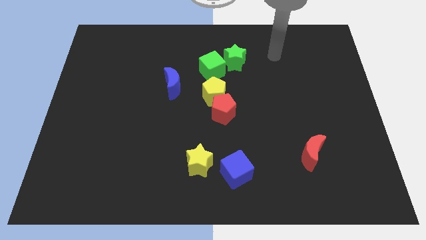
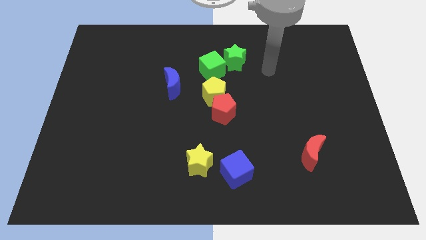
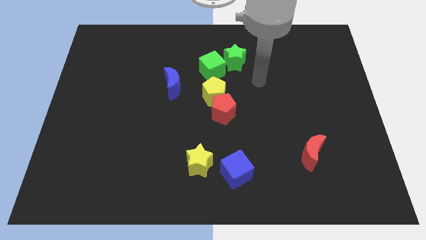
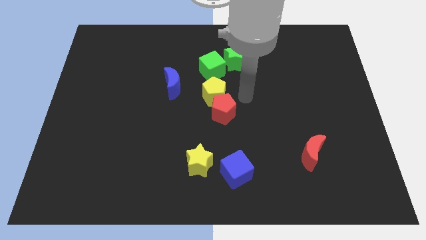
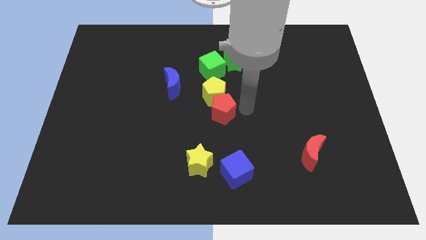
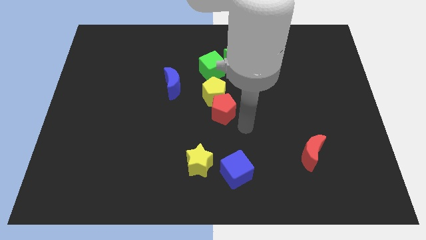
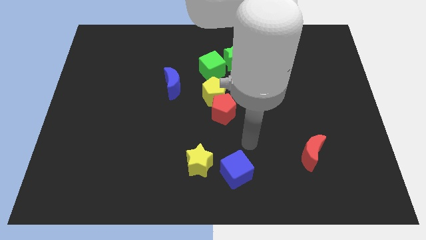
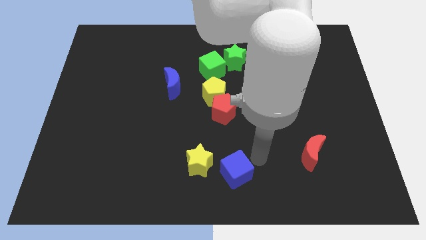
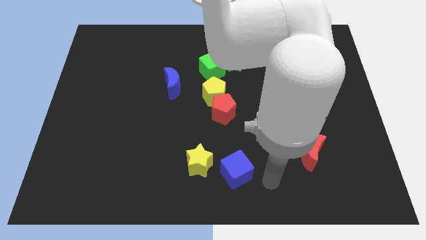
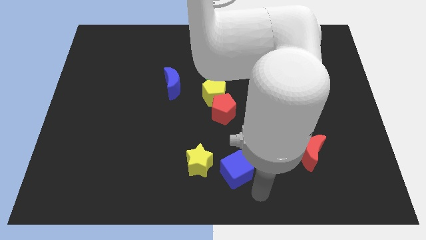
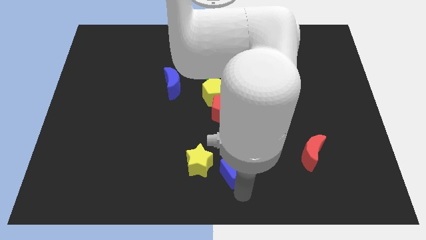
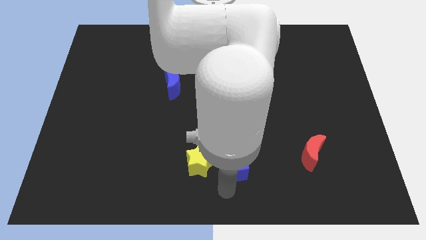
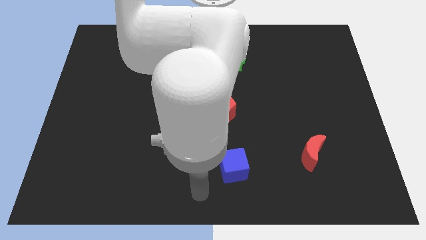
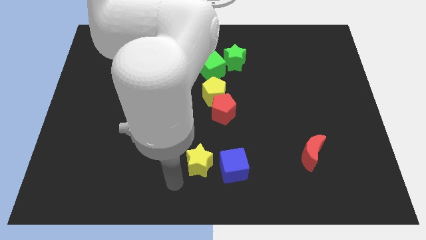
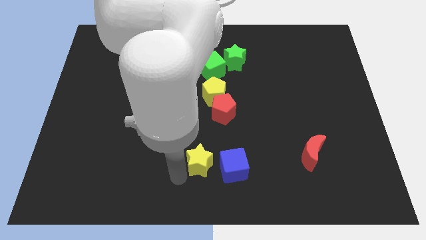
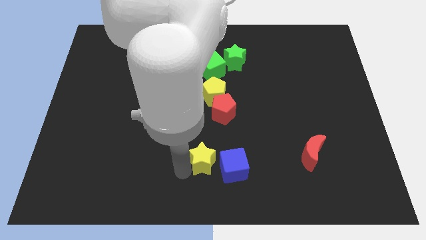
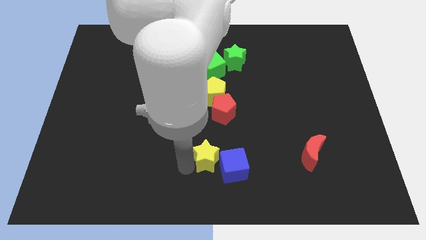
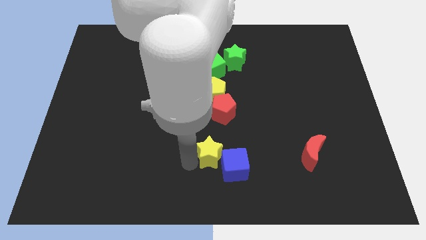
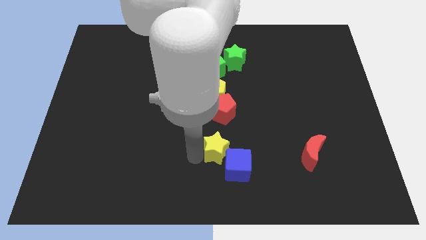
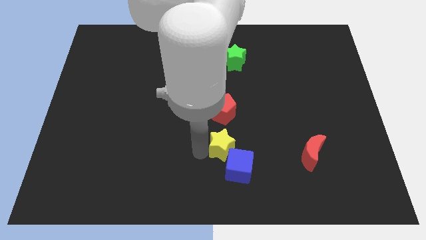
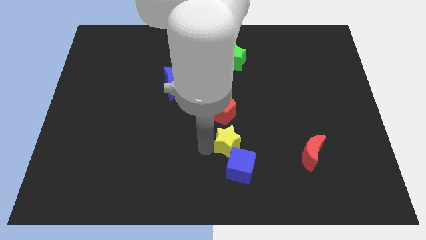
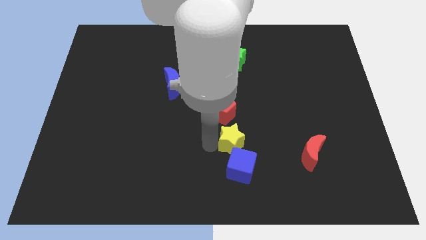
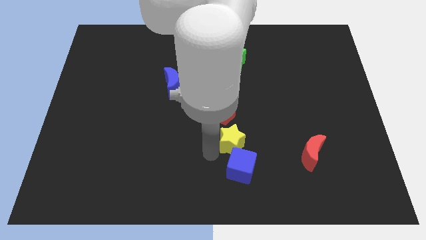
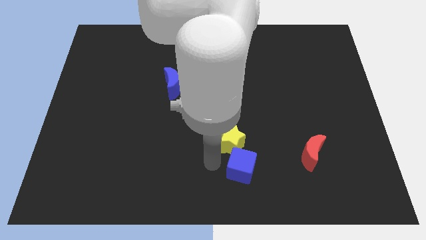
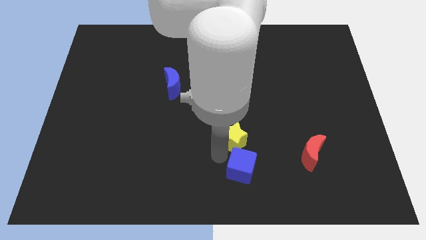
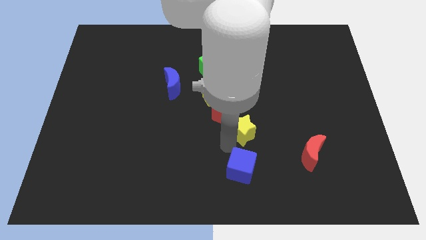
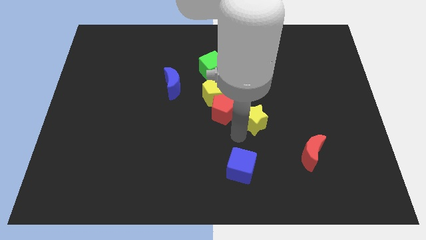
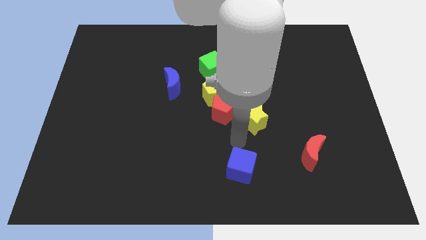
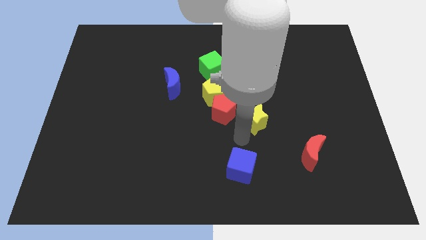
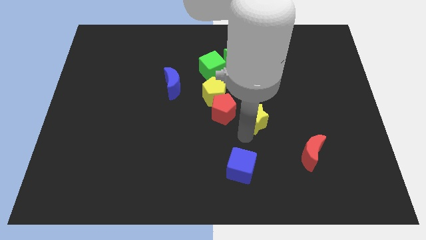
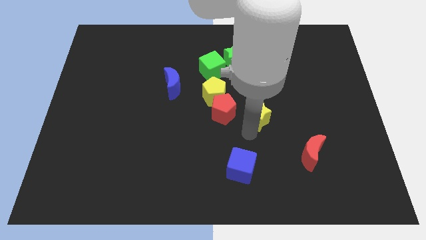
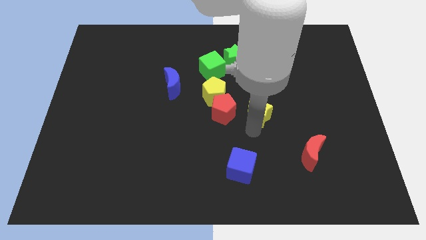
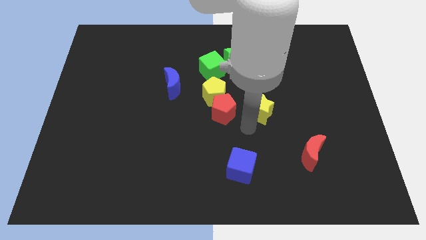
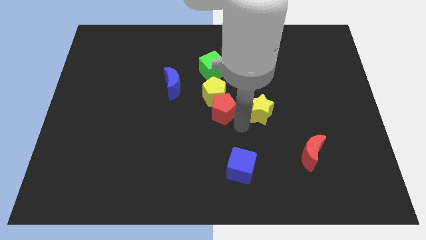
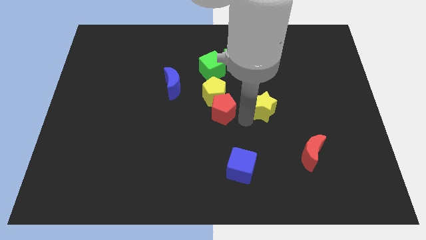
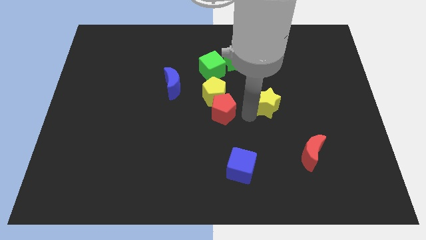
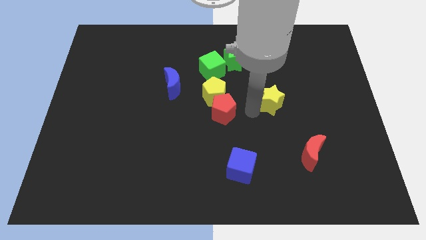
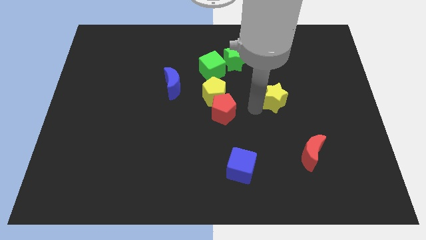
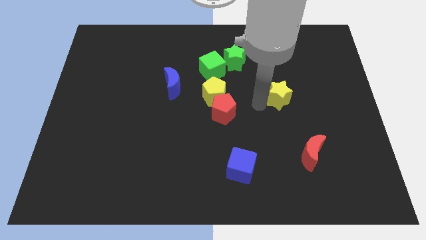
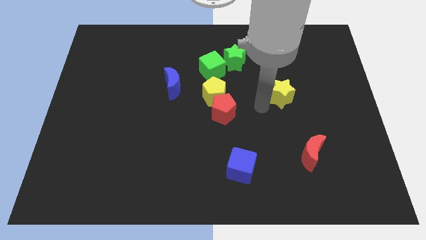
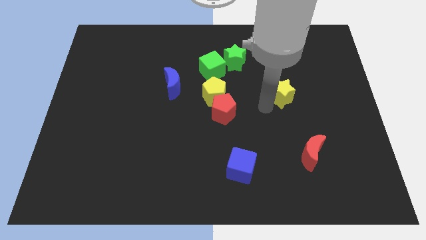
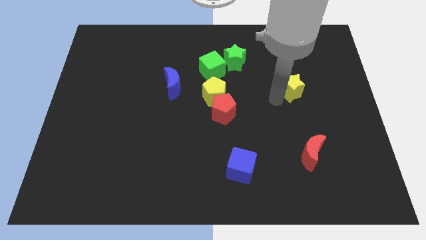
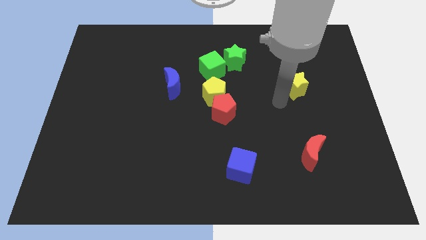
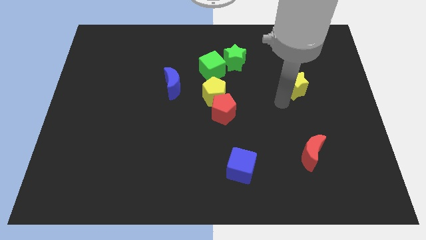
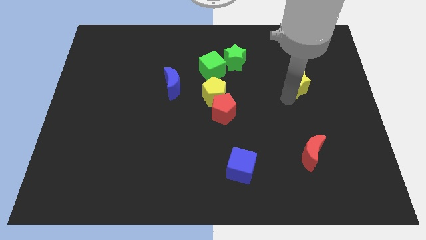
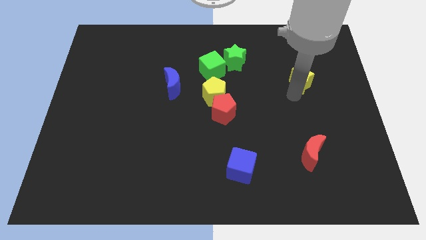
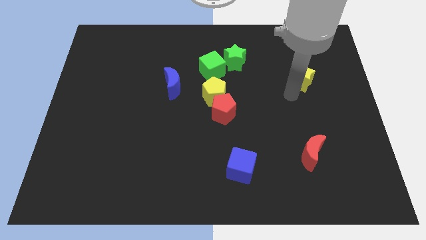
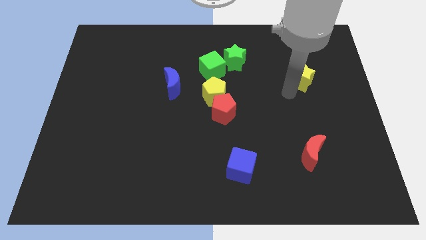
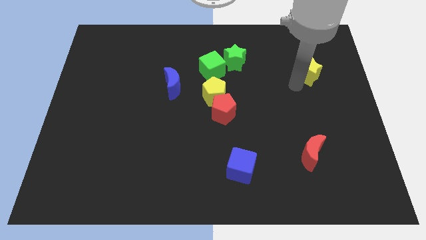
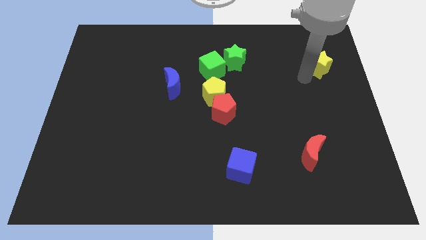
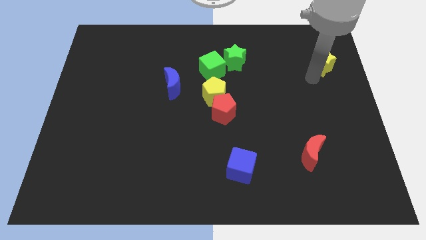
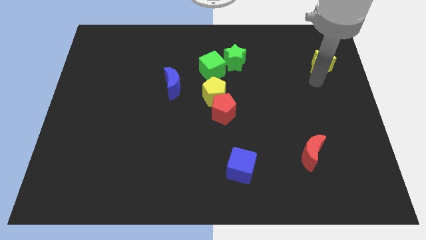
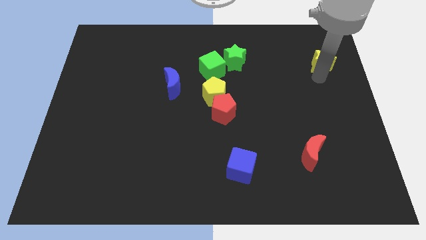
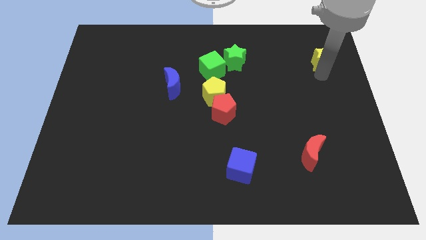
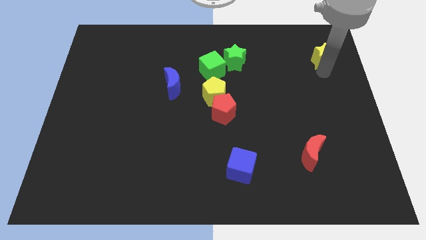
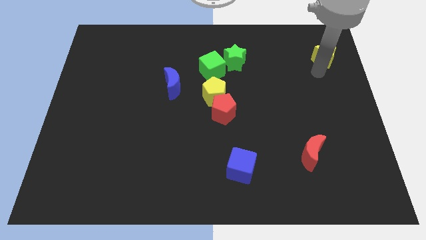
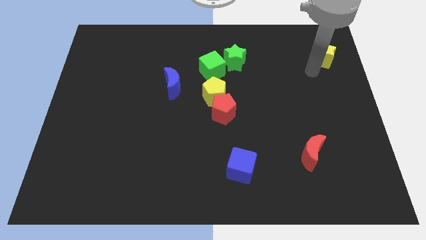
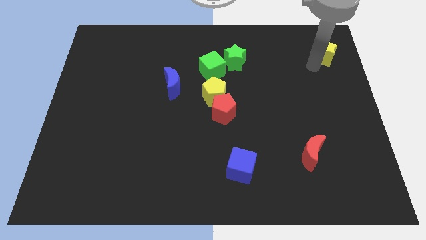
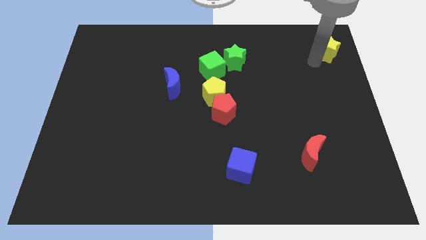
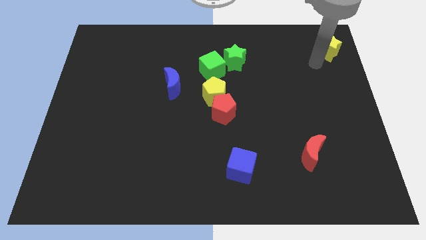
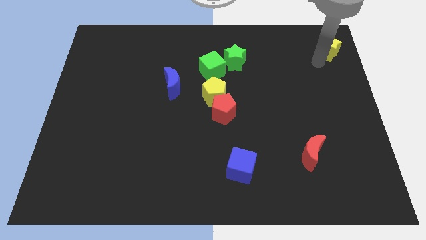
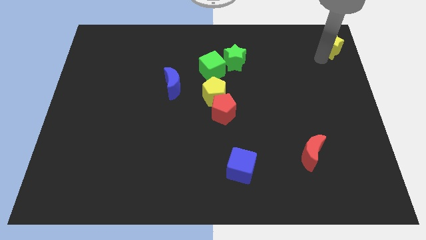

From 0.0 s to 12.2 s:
push the yellow star to the upper right corner
